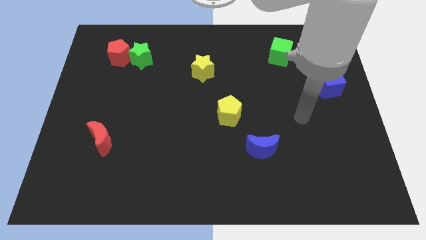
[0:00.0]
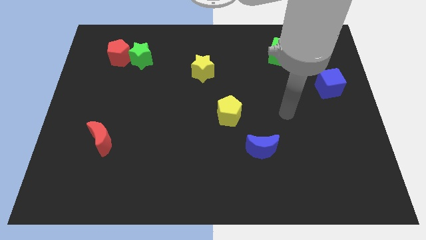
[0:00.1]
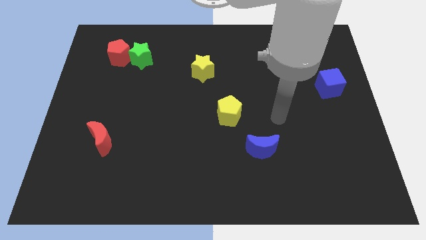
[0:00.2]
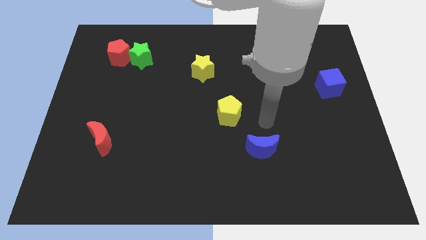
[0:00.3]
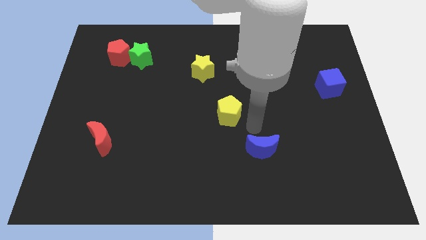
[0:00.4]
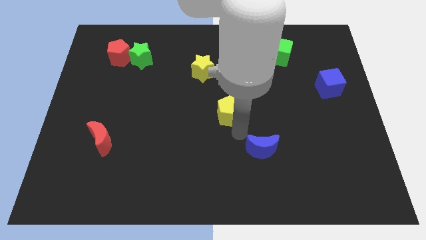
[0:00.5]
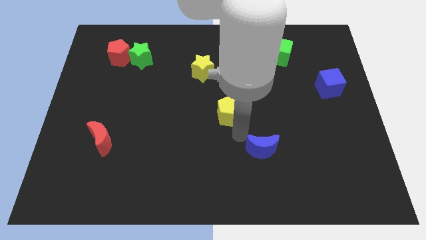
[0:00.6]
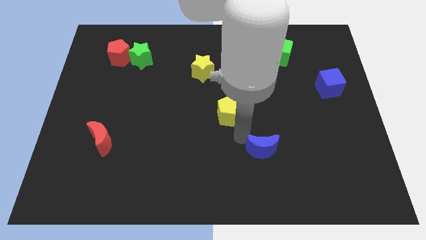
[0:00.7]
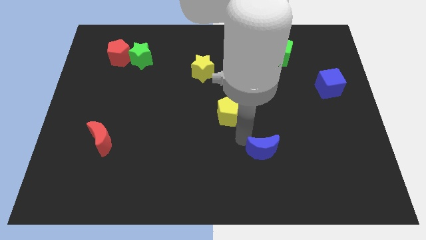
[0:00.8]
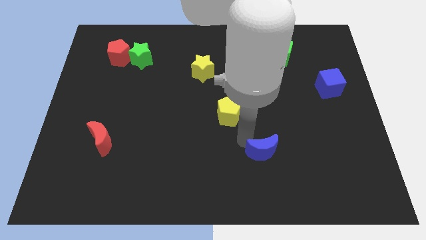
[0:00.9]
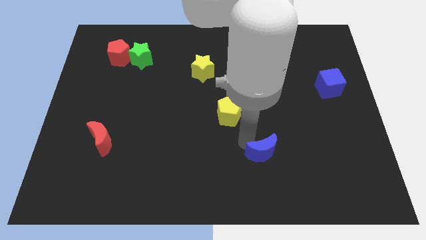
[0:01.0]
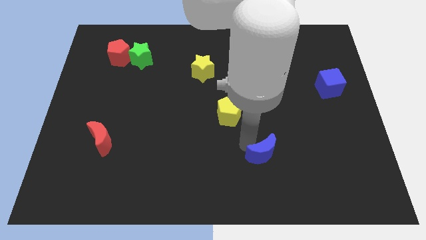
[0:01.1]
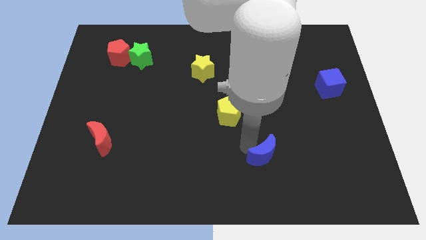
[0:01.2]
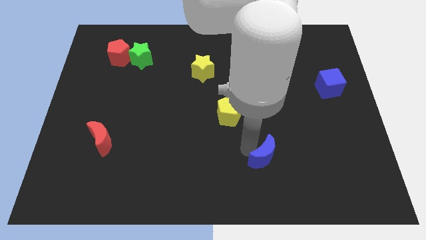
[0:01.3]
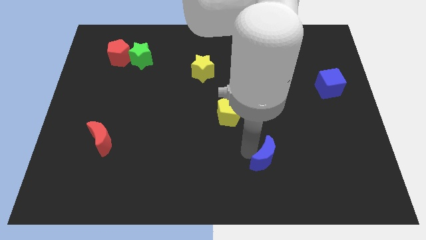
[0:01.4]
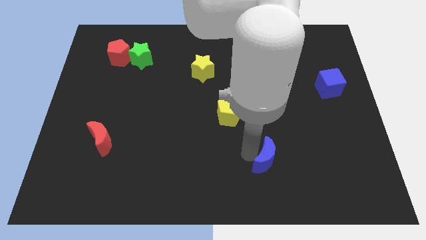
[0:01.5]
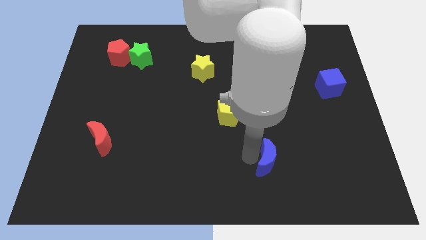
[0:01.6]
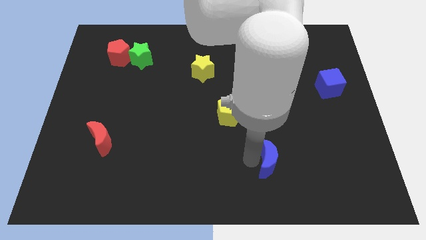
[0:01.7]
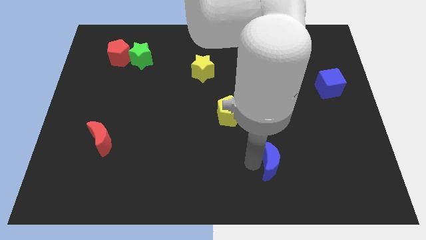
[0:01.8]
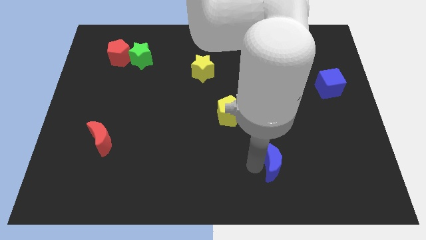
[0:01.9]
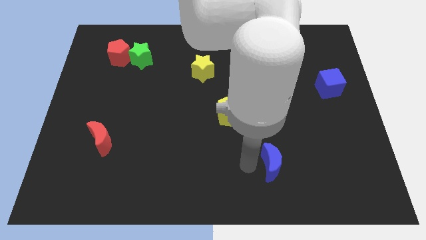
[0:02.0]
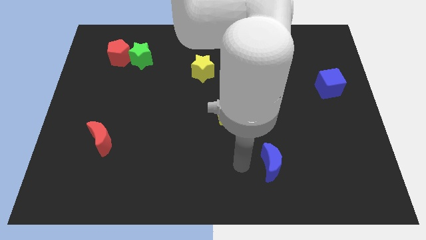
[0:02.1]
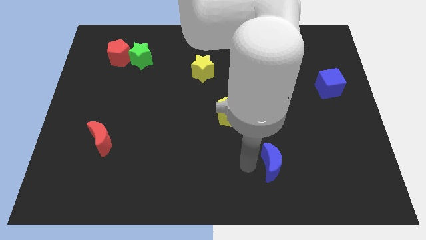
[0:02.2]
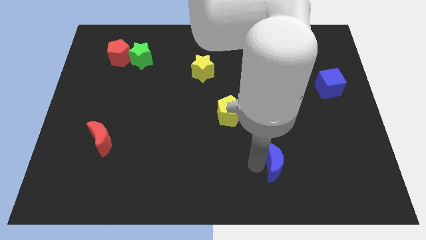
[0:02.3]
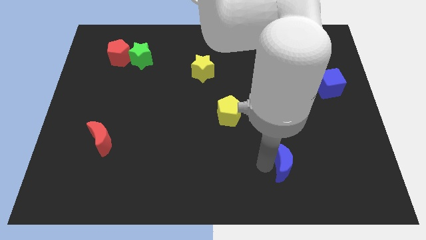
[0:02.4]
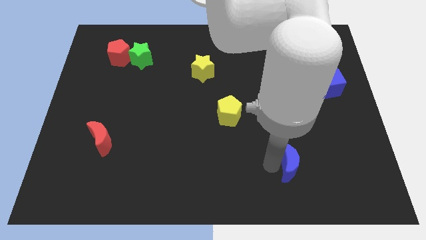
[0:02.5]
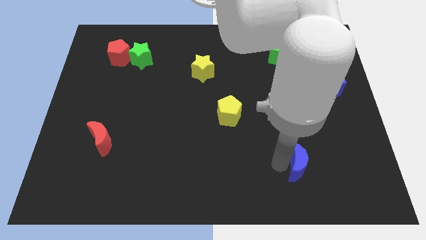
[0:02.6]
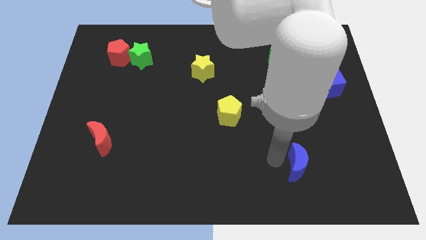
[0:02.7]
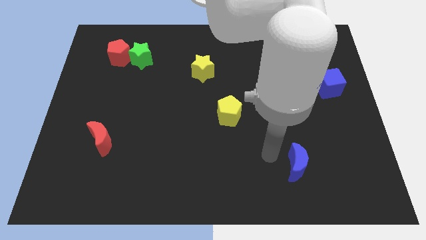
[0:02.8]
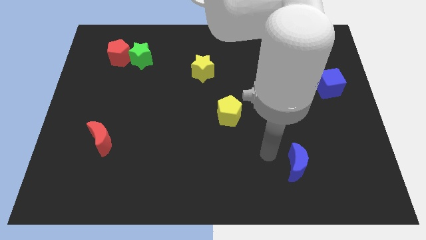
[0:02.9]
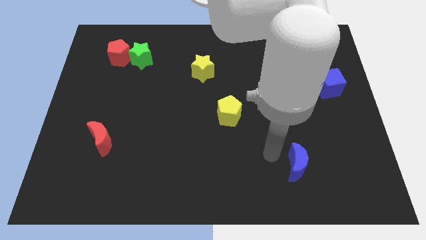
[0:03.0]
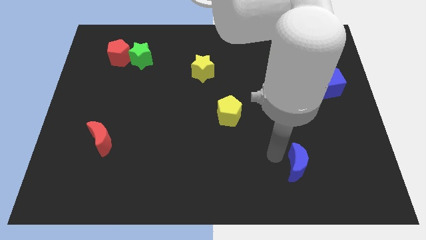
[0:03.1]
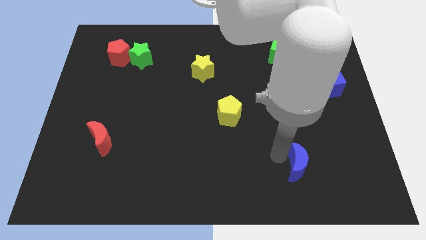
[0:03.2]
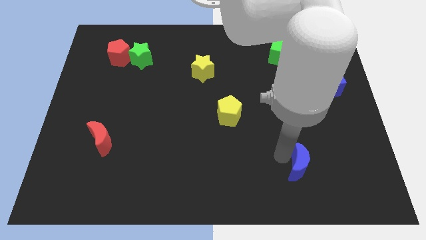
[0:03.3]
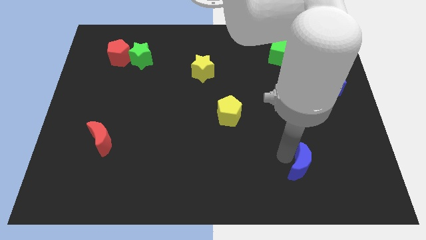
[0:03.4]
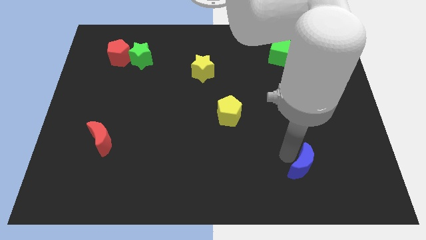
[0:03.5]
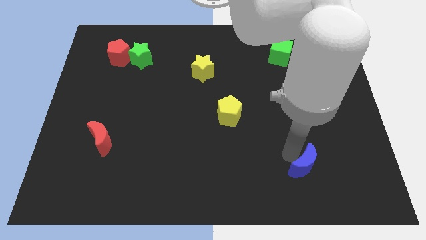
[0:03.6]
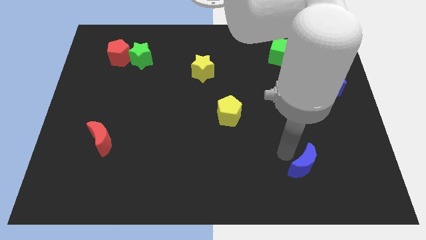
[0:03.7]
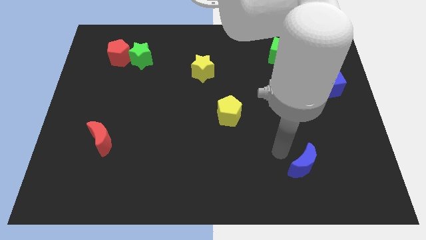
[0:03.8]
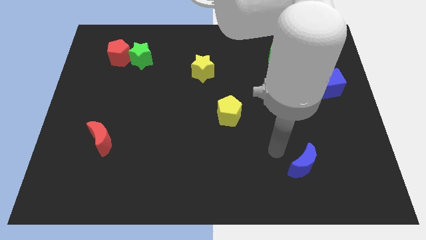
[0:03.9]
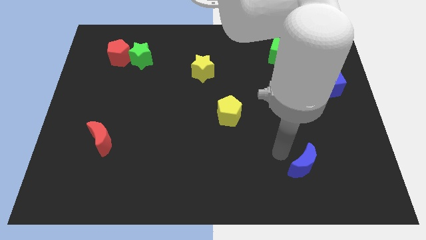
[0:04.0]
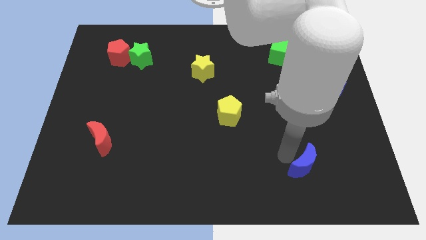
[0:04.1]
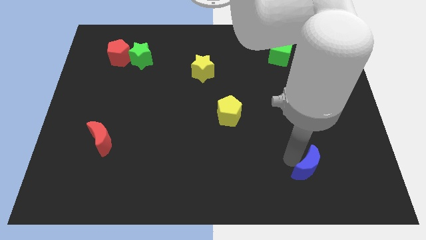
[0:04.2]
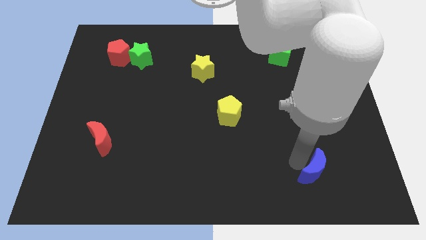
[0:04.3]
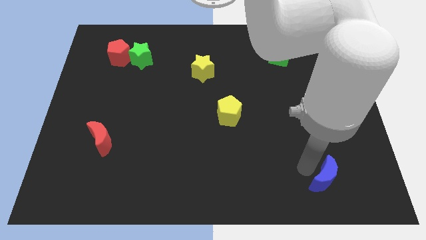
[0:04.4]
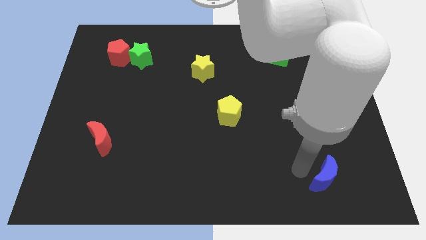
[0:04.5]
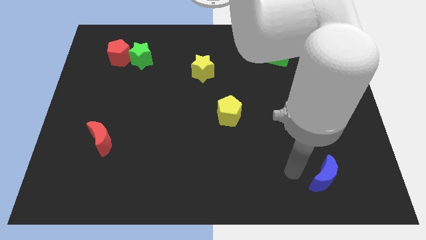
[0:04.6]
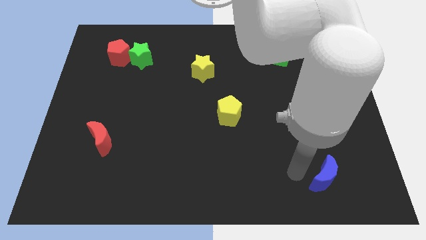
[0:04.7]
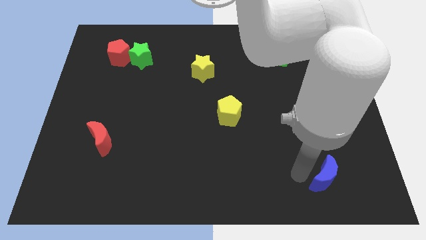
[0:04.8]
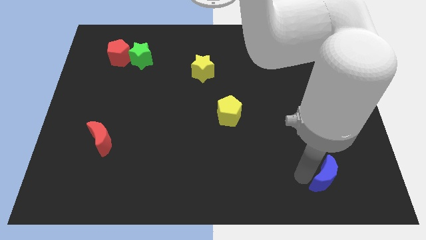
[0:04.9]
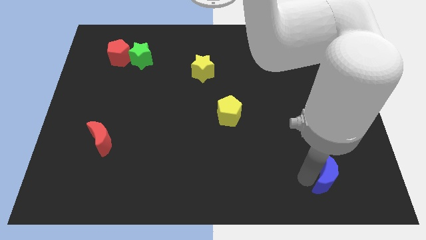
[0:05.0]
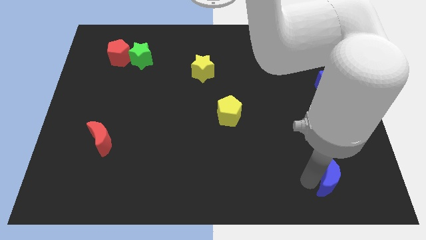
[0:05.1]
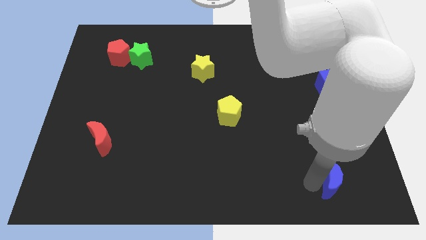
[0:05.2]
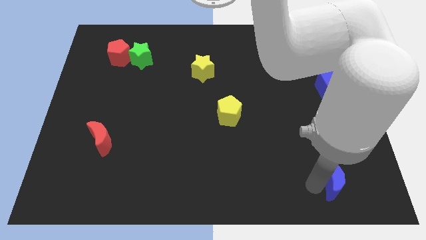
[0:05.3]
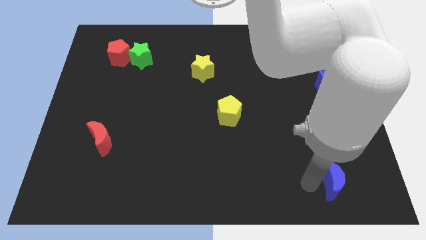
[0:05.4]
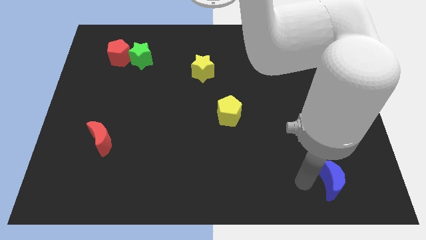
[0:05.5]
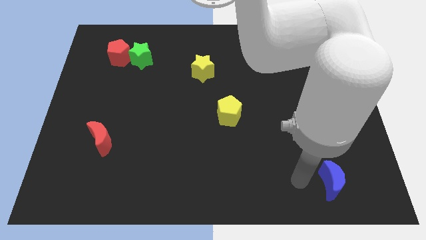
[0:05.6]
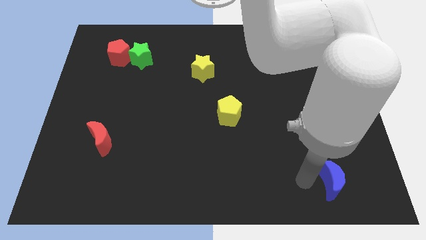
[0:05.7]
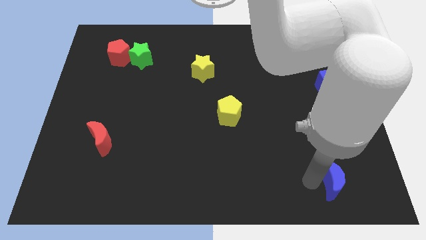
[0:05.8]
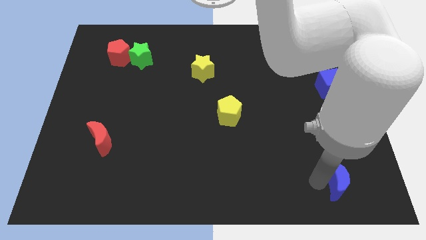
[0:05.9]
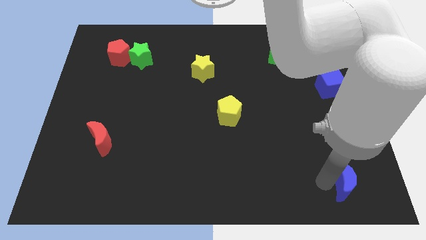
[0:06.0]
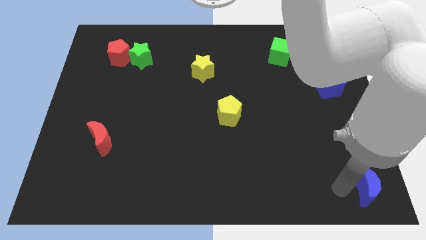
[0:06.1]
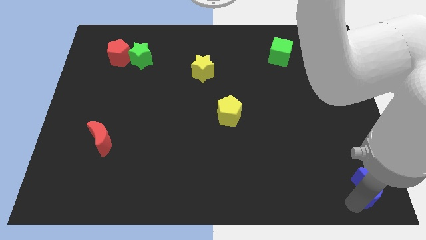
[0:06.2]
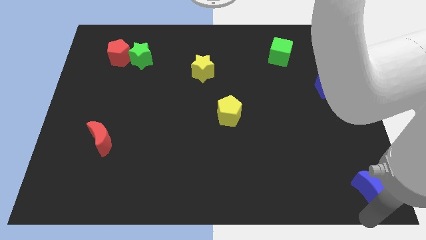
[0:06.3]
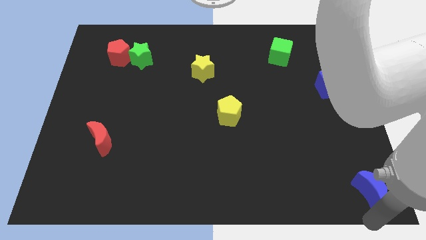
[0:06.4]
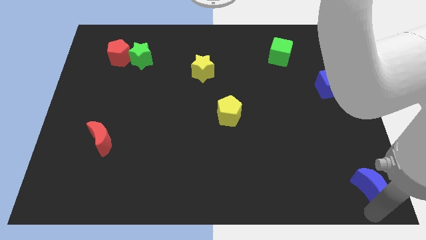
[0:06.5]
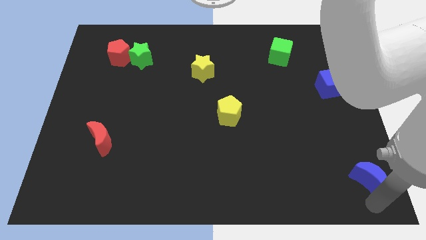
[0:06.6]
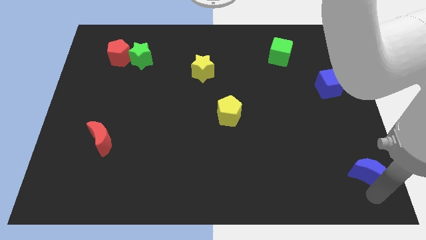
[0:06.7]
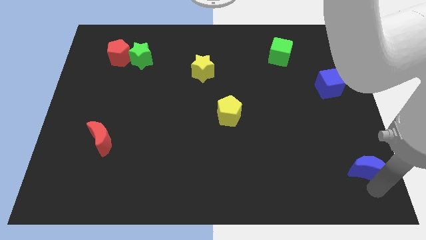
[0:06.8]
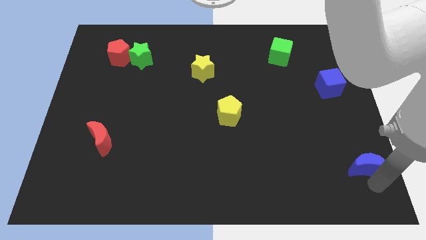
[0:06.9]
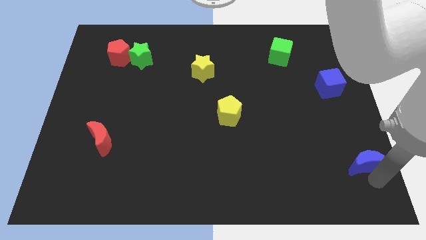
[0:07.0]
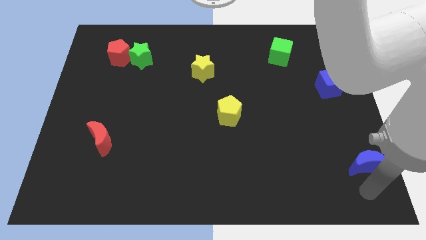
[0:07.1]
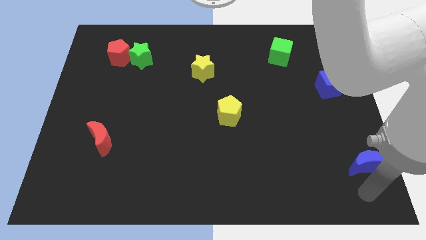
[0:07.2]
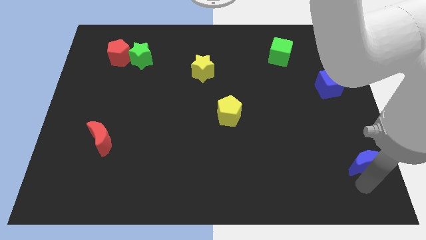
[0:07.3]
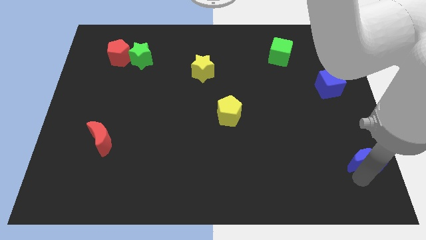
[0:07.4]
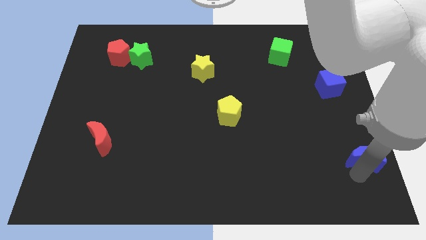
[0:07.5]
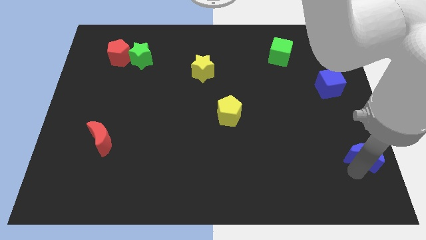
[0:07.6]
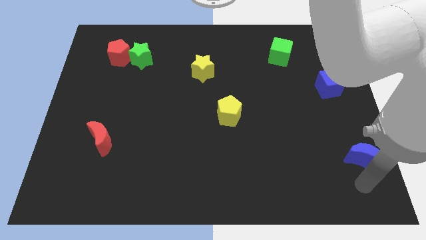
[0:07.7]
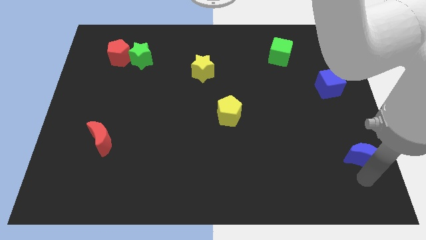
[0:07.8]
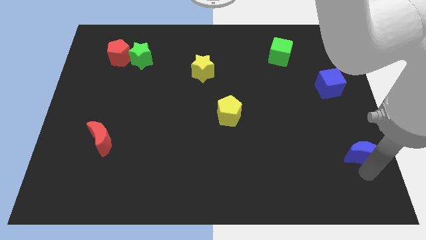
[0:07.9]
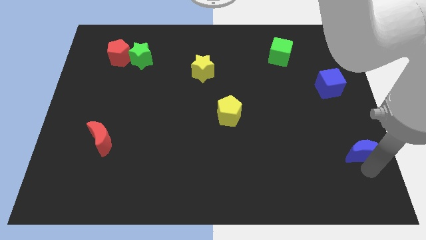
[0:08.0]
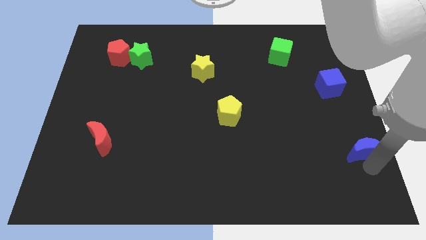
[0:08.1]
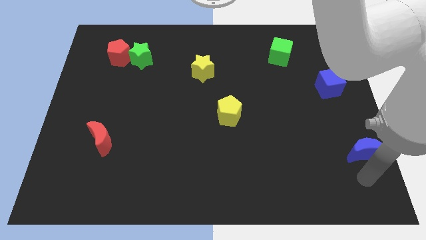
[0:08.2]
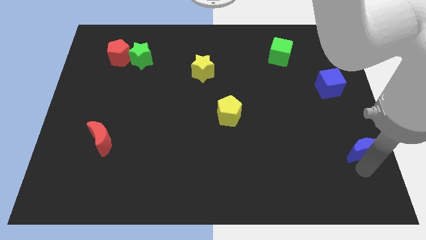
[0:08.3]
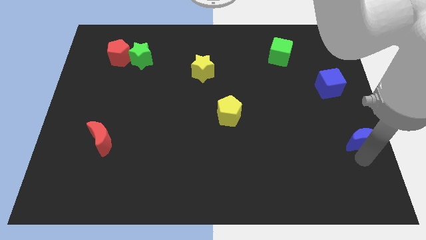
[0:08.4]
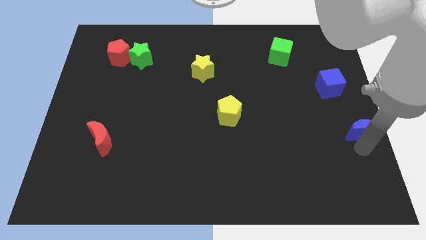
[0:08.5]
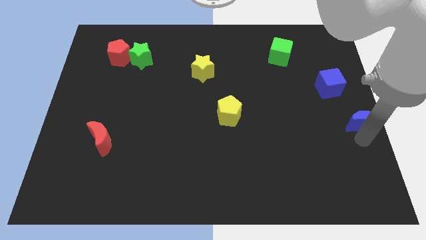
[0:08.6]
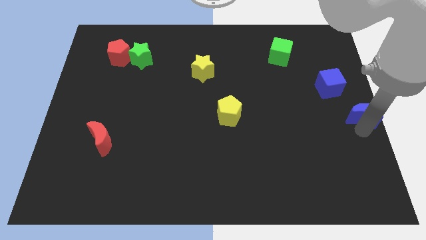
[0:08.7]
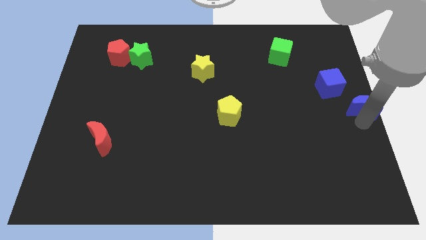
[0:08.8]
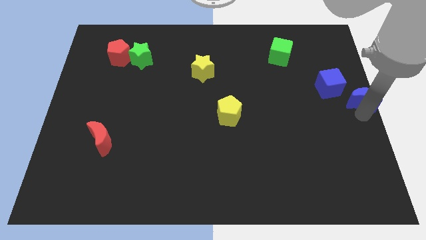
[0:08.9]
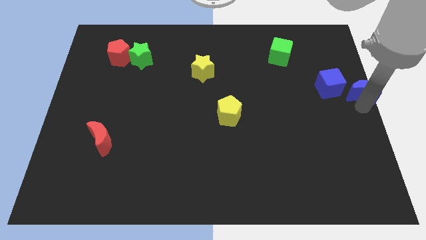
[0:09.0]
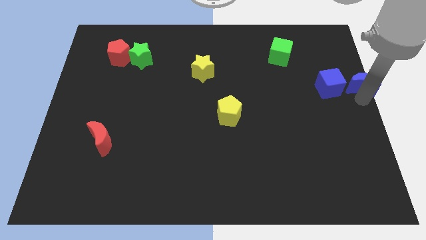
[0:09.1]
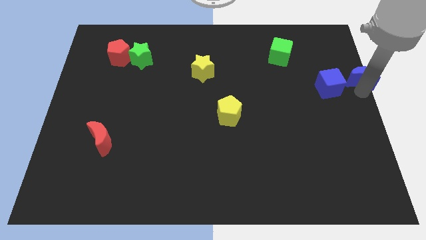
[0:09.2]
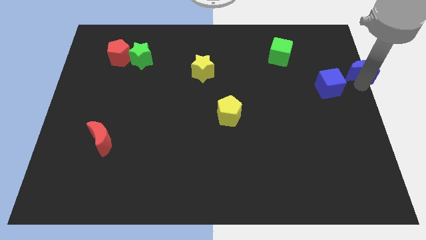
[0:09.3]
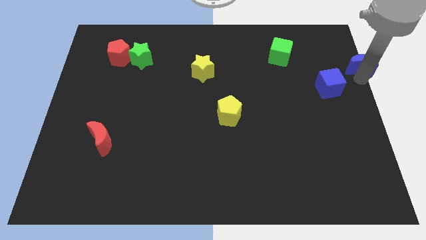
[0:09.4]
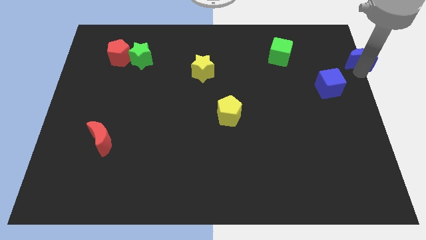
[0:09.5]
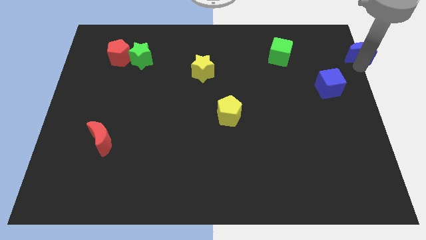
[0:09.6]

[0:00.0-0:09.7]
put the blue moon to the top right of the board
